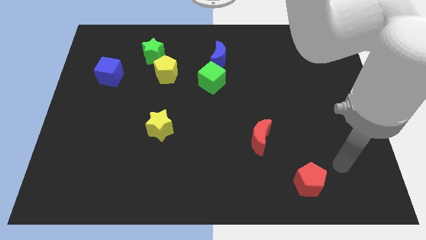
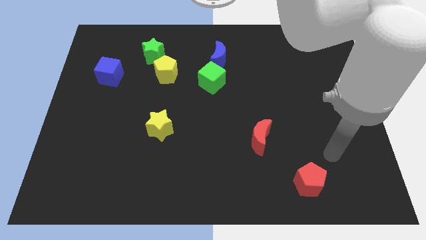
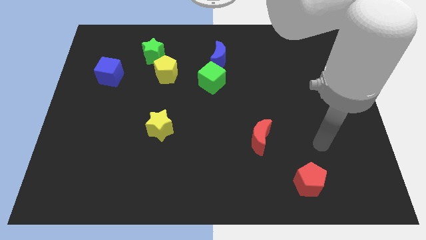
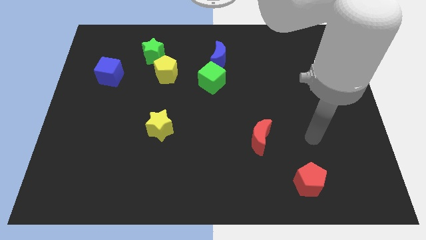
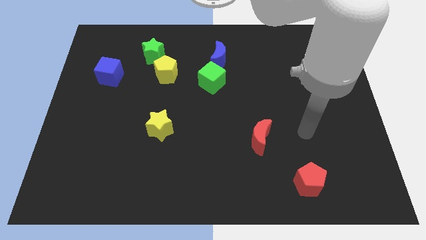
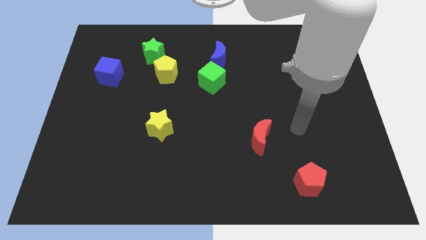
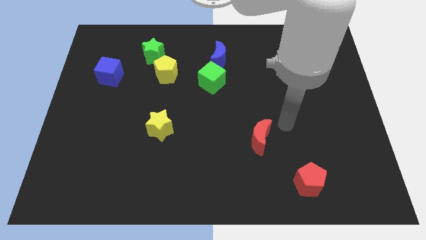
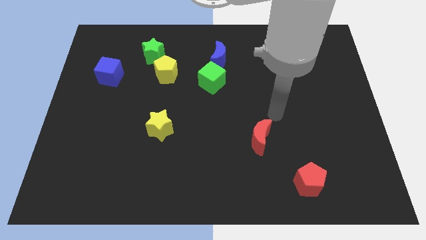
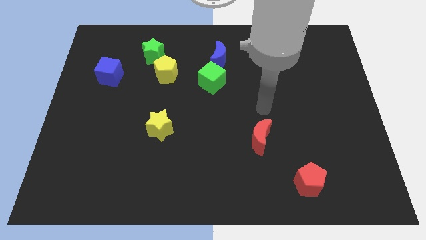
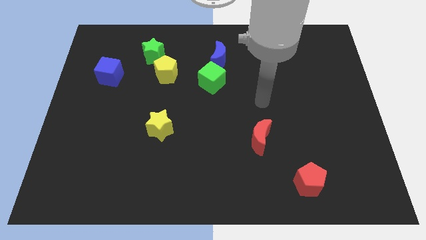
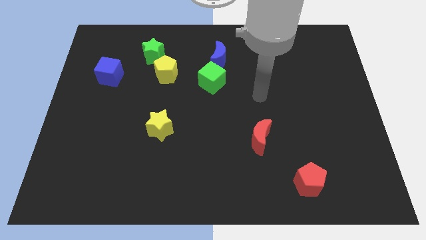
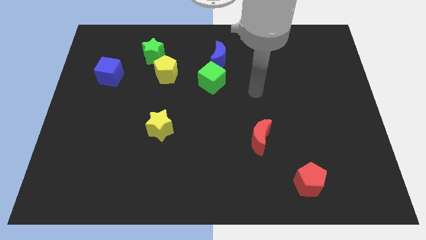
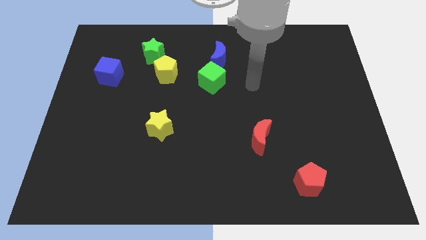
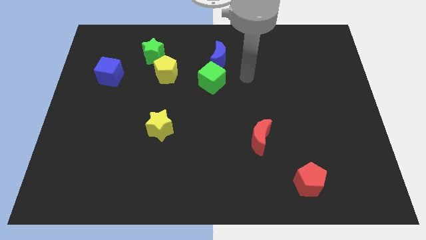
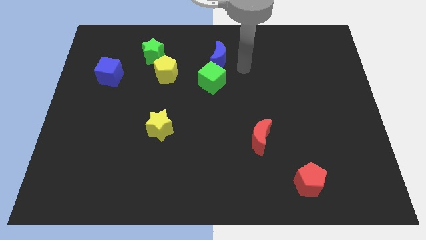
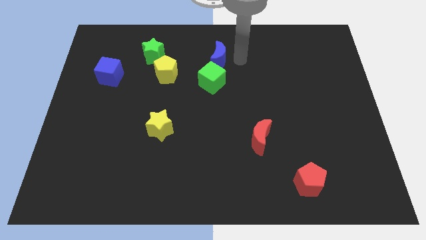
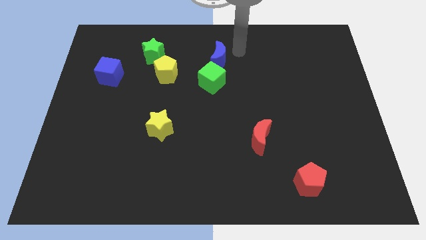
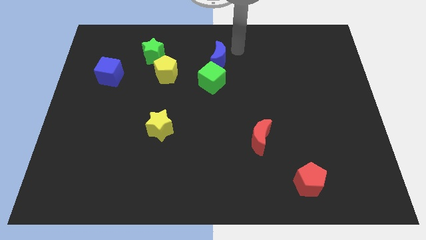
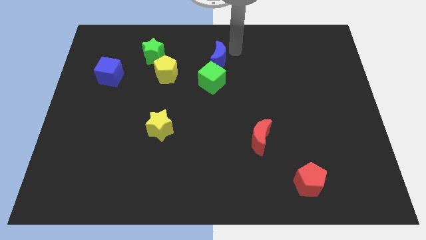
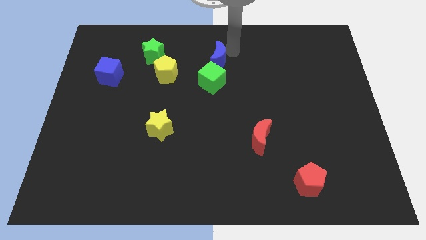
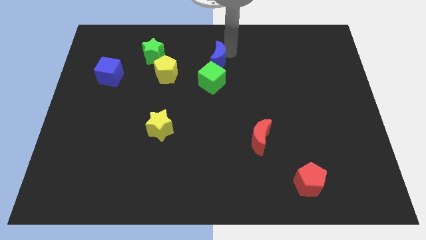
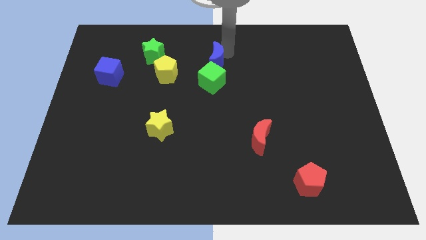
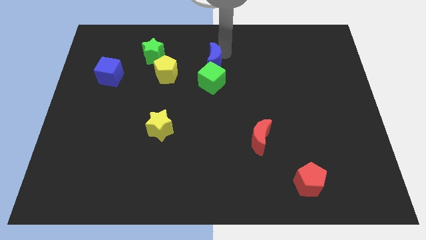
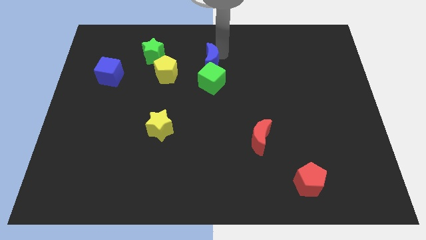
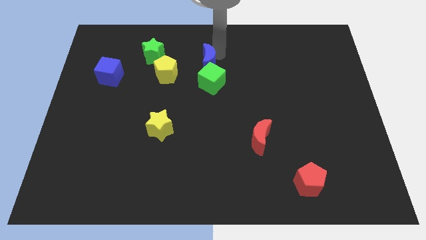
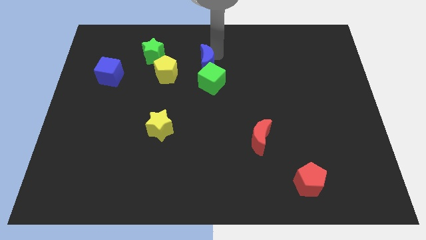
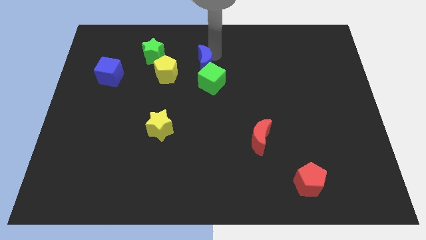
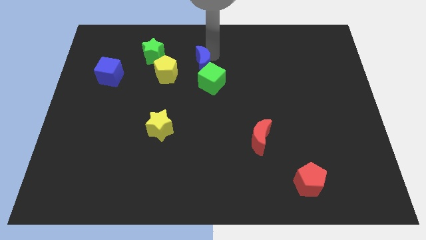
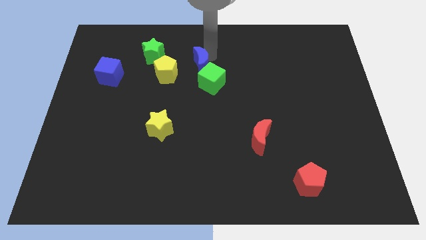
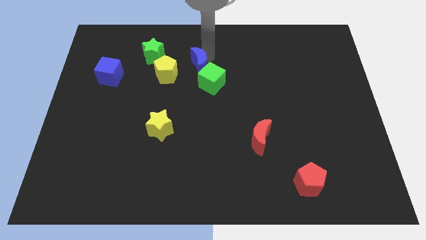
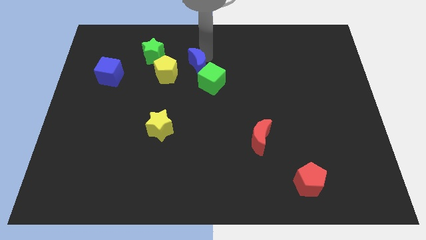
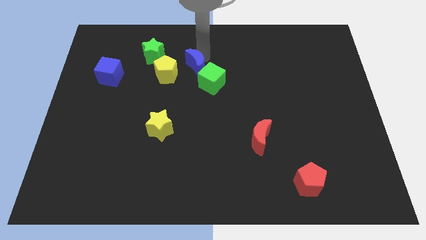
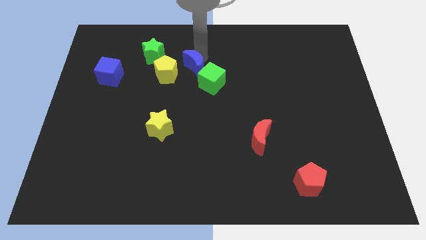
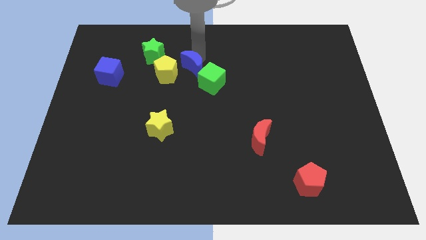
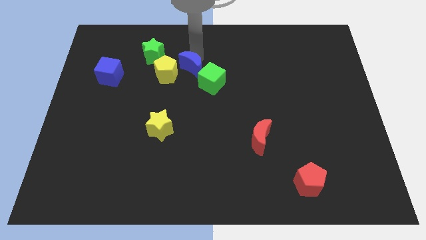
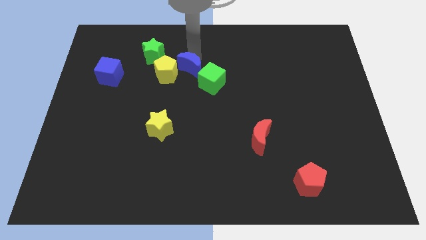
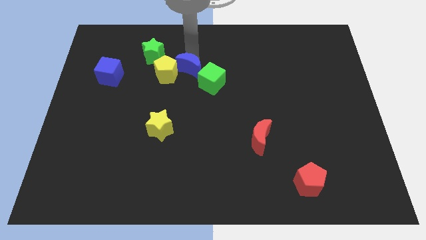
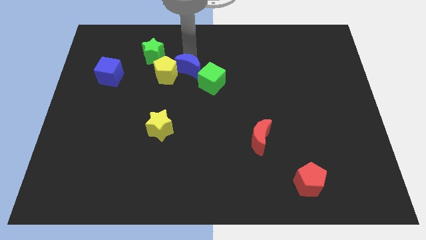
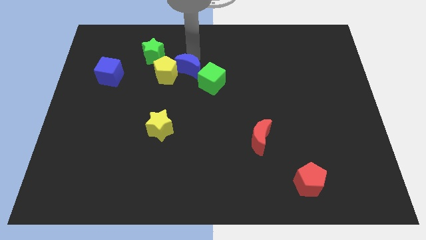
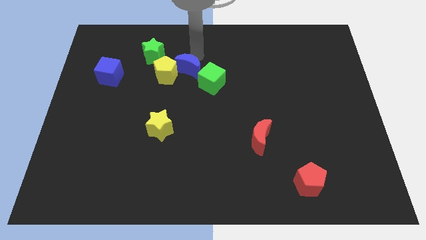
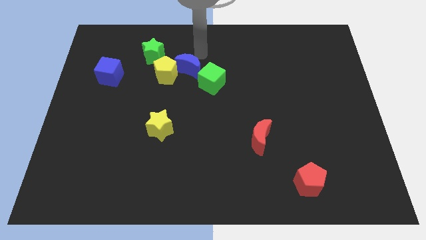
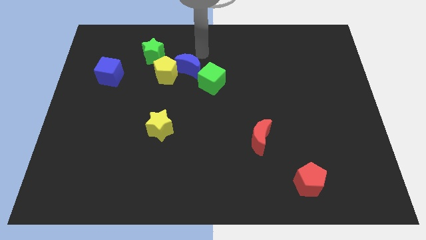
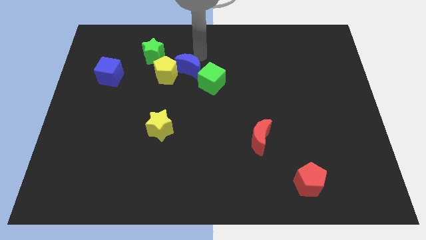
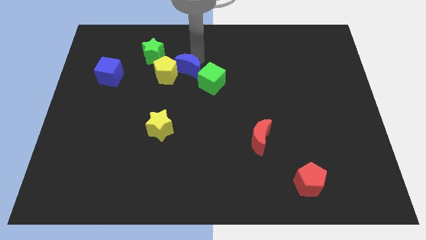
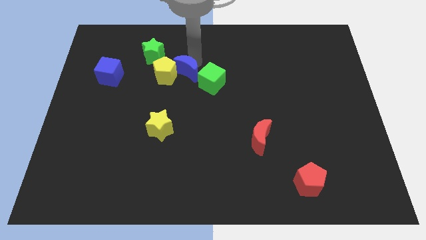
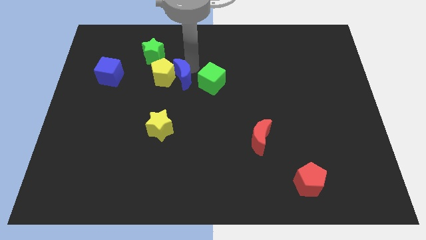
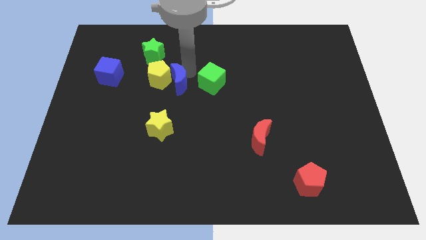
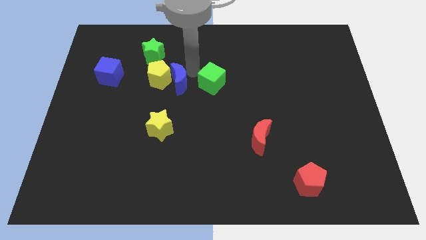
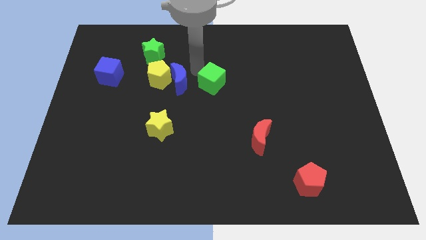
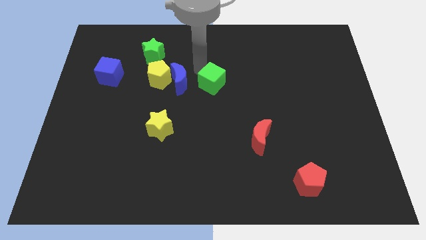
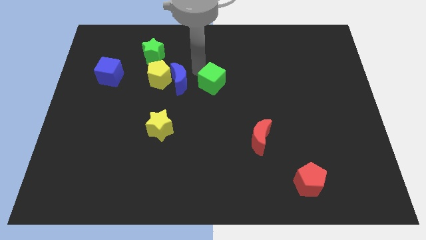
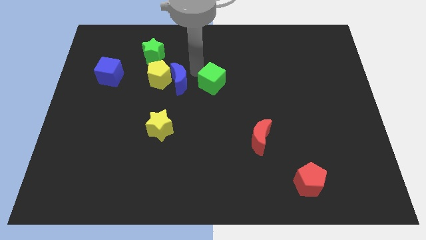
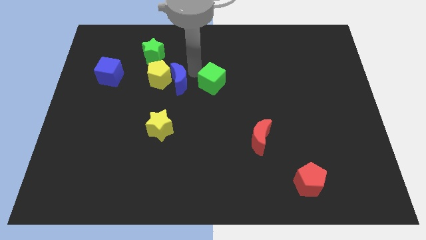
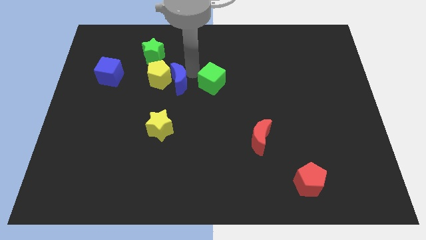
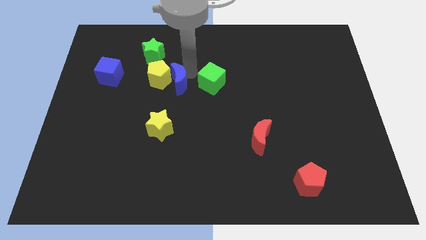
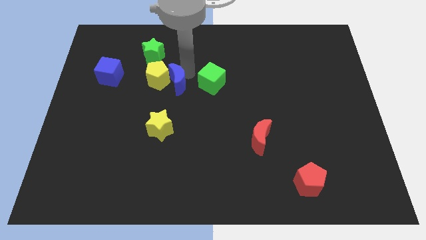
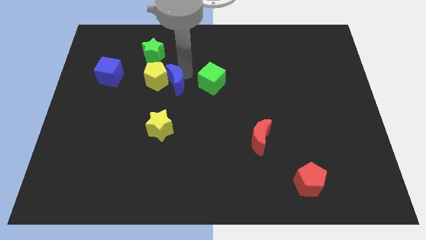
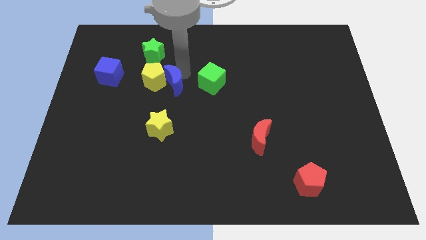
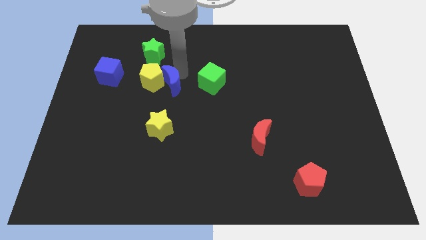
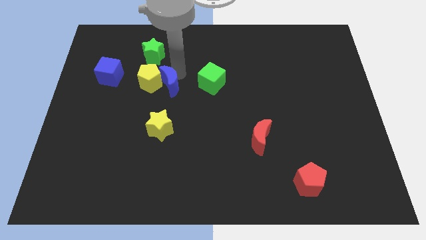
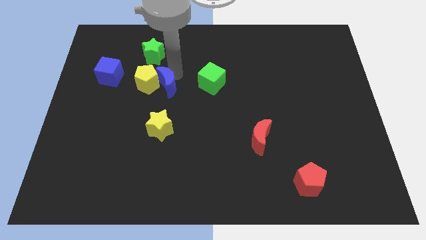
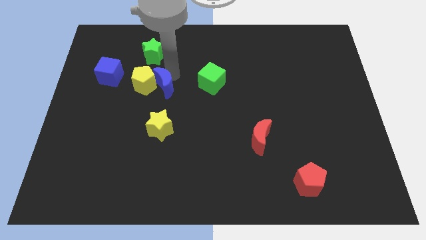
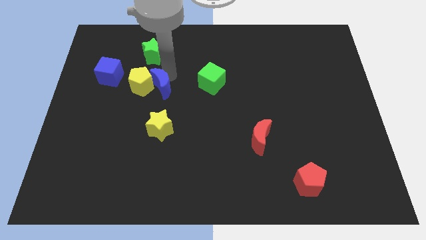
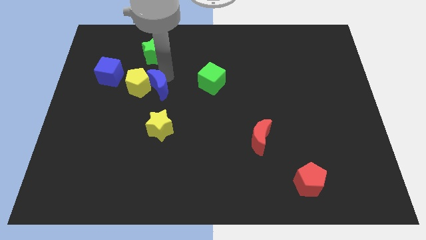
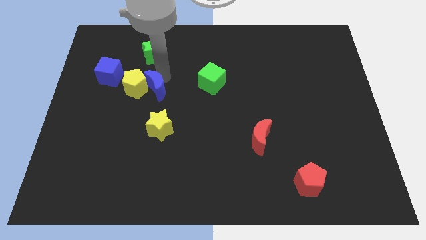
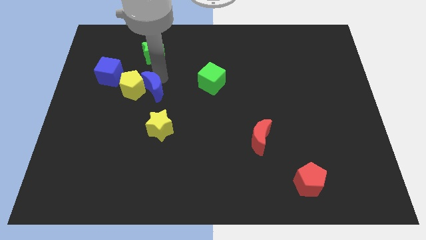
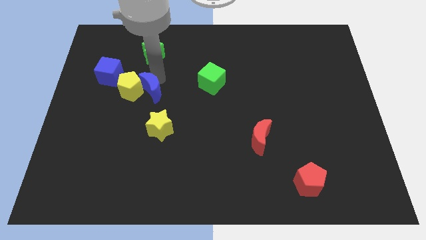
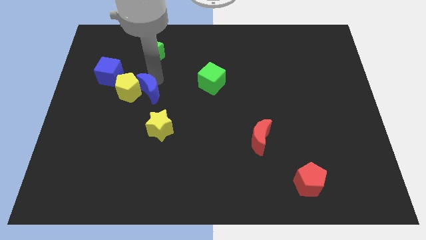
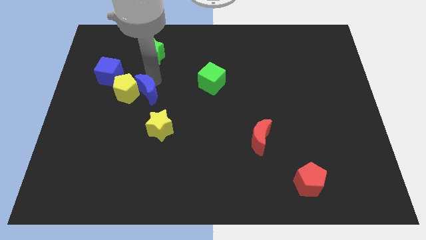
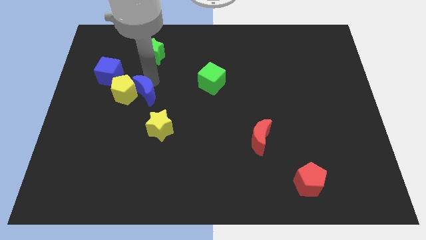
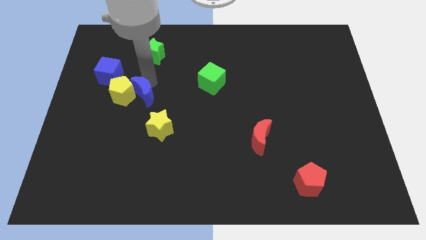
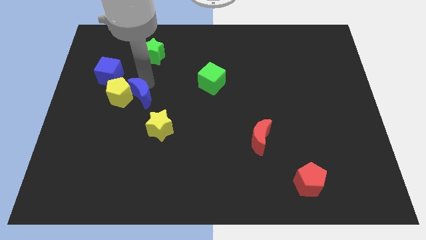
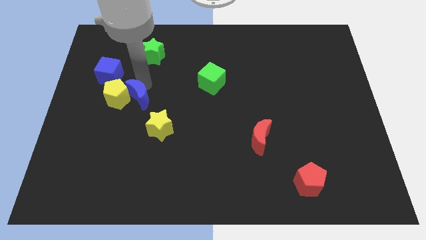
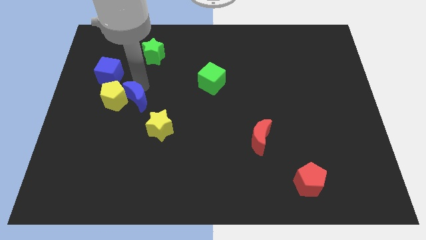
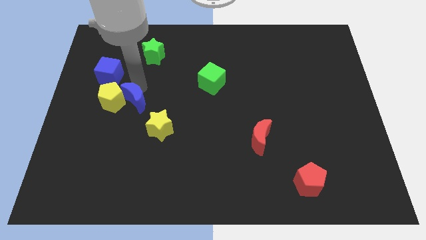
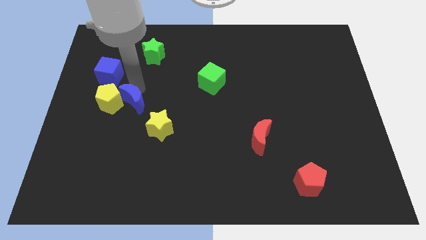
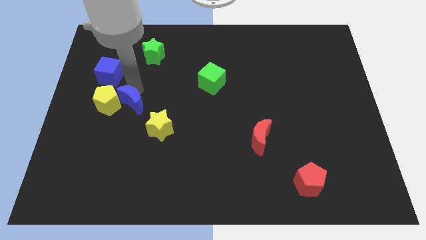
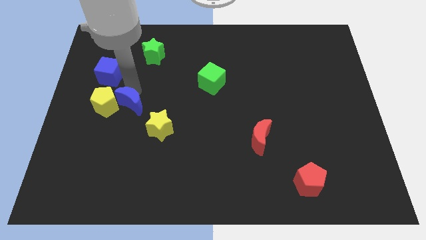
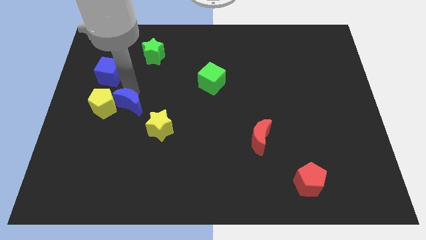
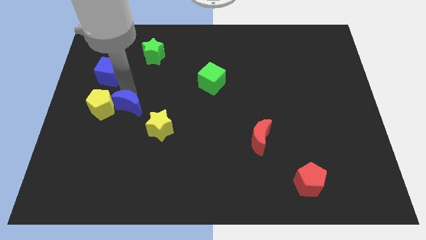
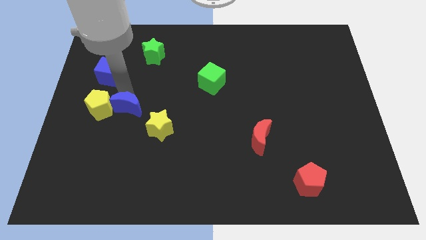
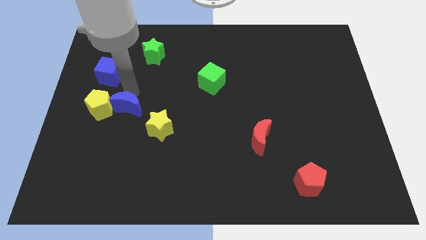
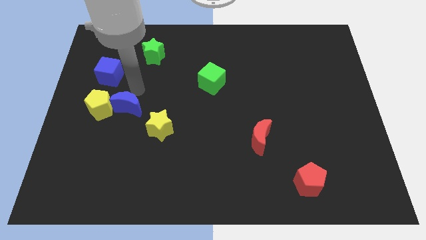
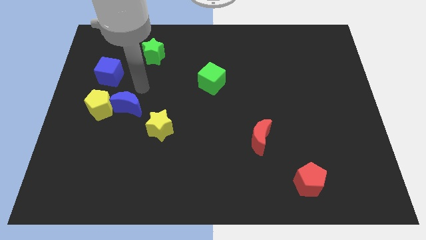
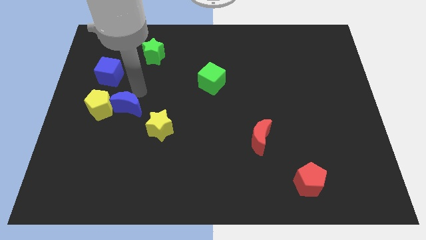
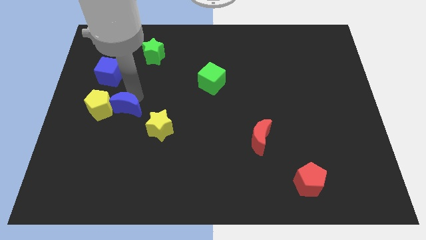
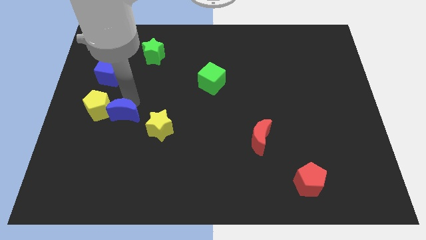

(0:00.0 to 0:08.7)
slide the blue moon left of the yellow star
